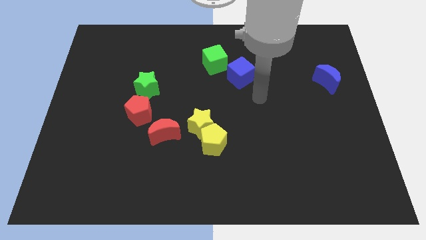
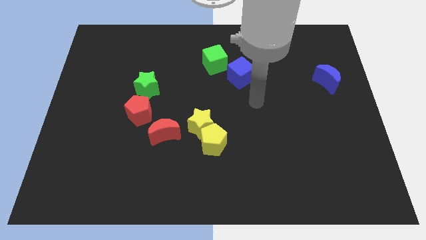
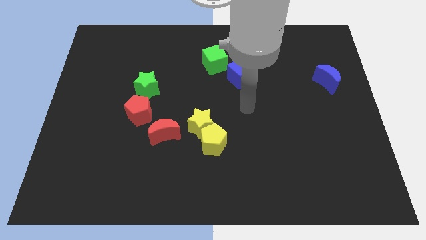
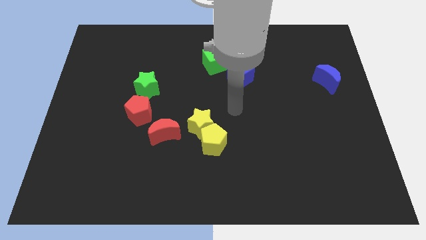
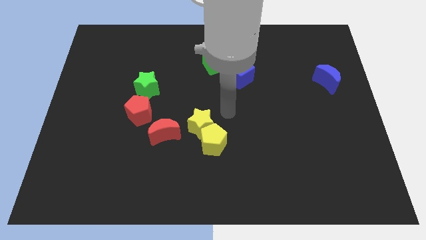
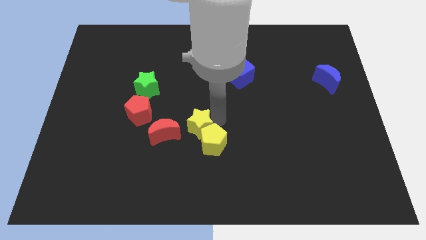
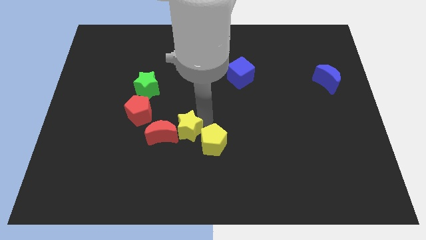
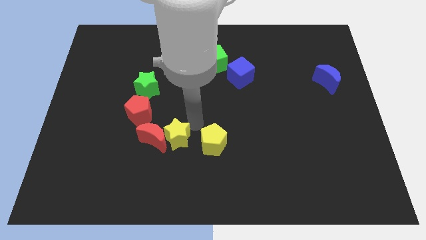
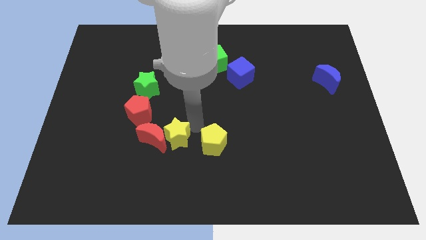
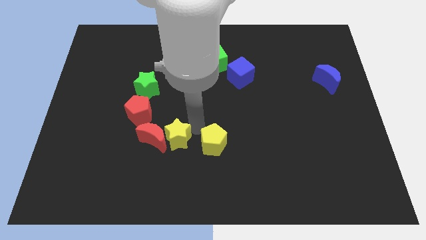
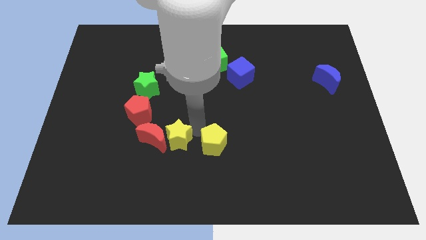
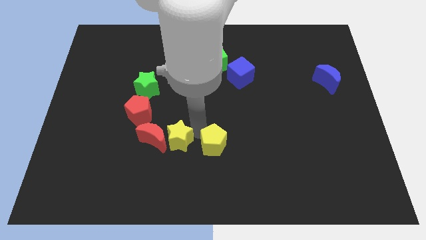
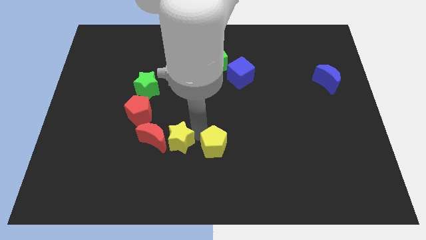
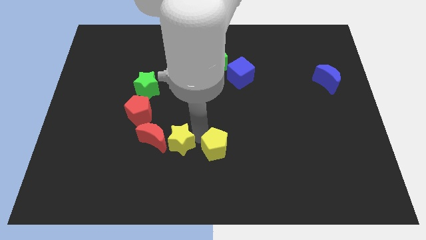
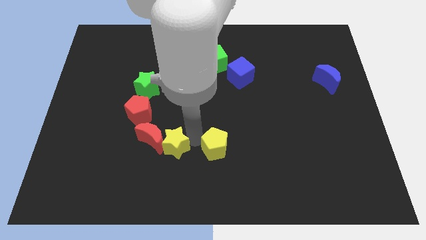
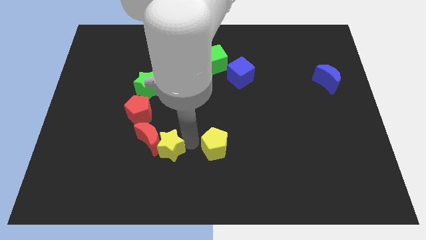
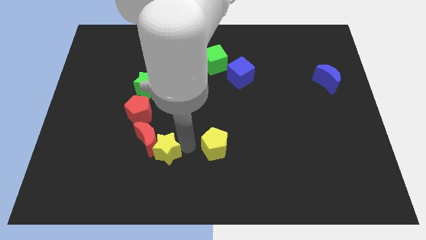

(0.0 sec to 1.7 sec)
move the yellow pentagon away from the yellow star

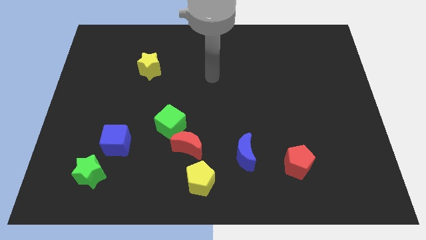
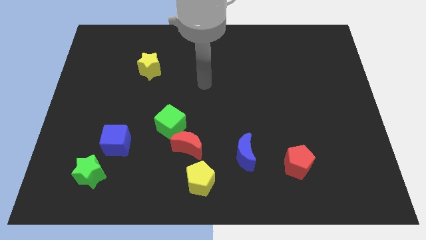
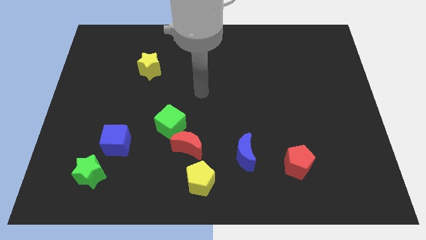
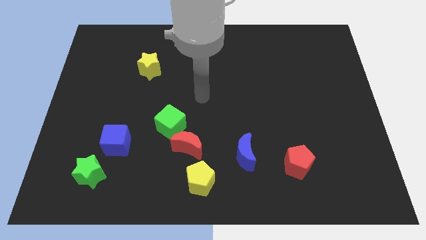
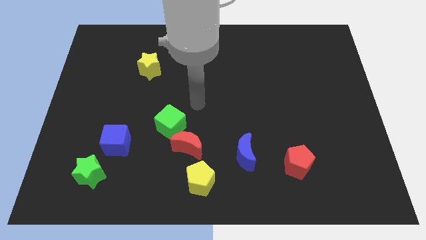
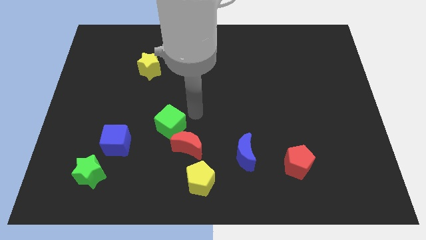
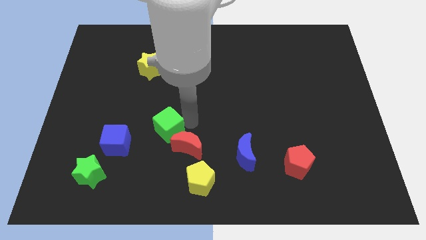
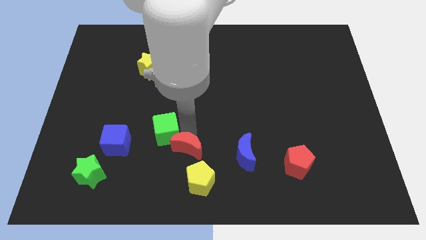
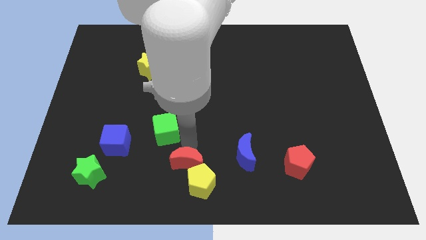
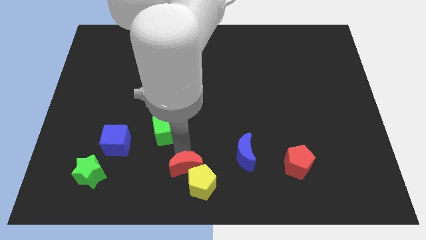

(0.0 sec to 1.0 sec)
move the green cube away from the red moon

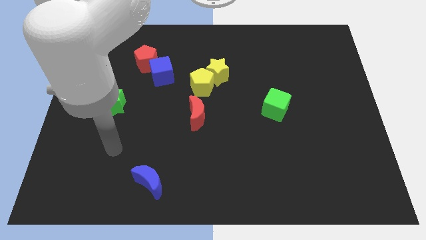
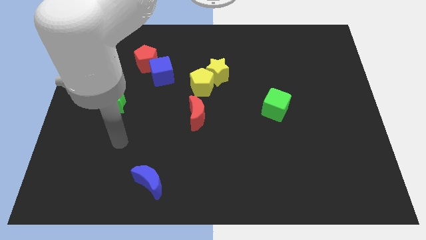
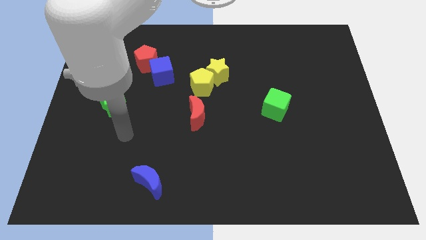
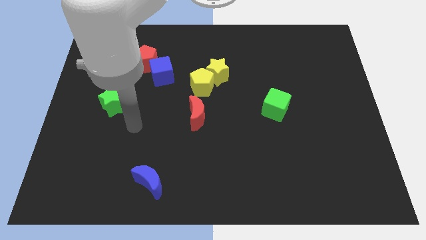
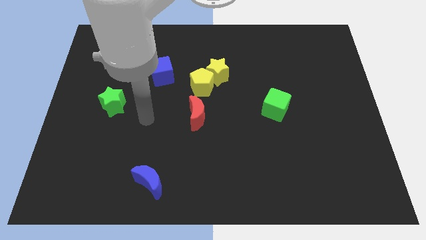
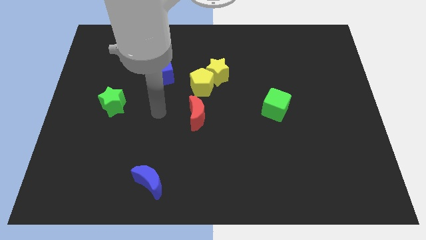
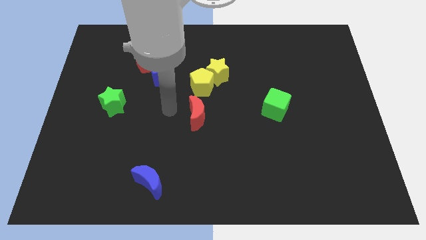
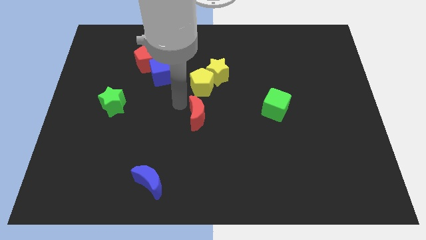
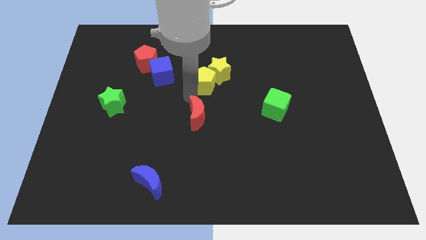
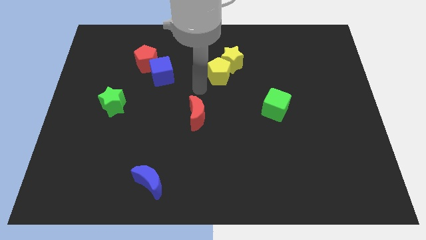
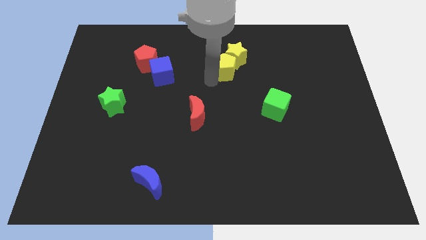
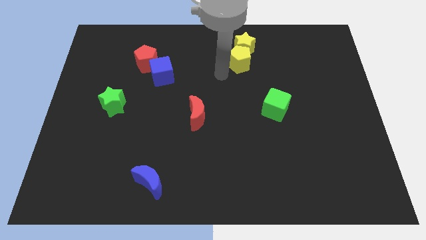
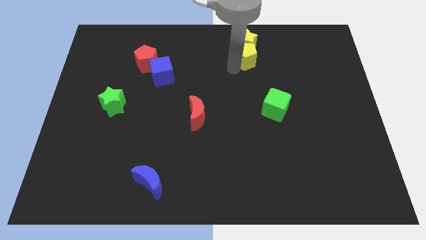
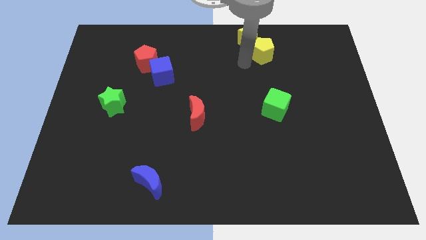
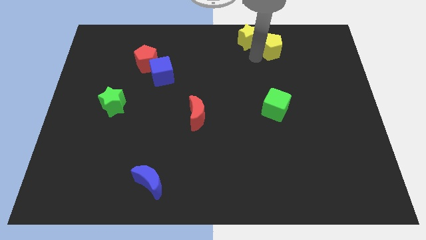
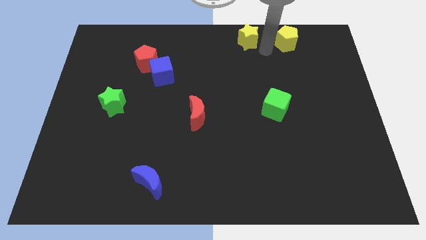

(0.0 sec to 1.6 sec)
separate the yellow star from the yellow pentagon

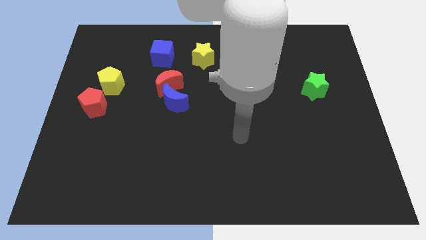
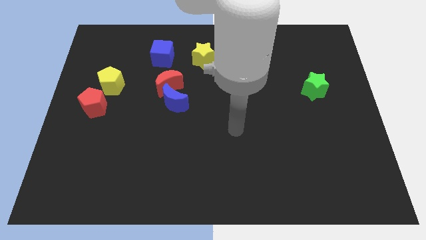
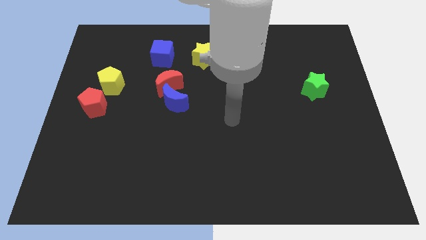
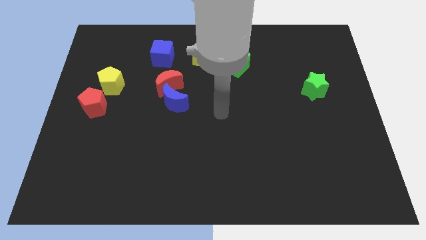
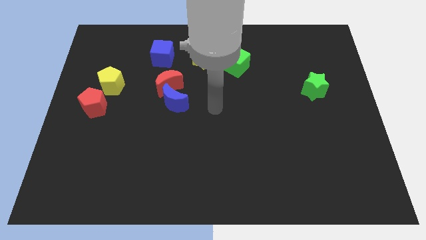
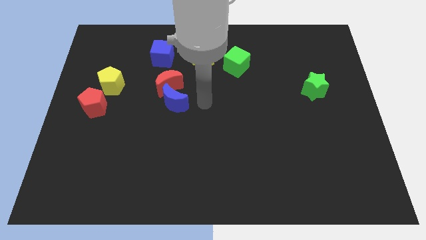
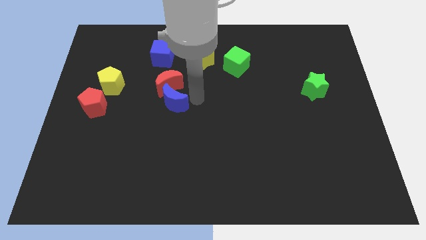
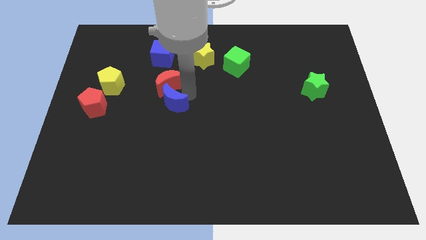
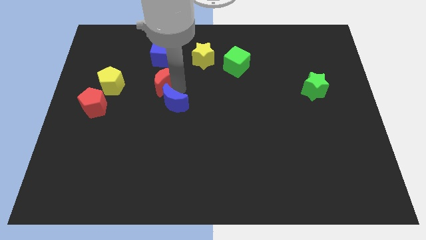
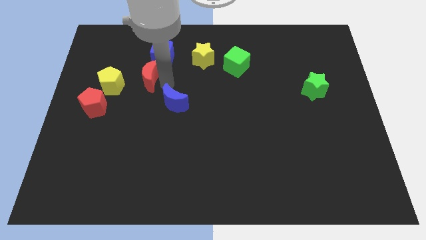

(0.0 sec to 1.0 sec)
pull the blue moon apart from the red moon

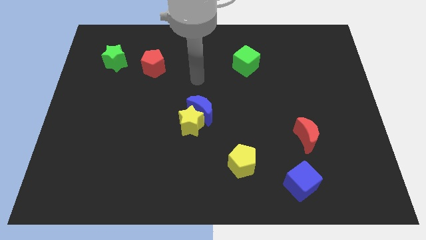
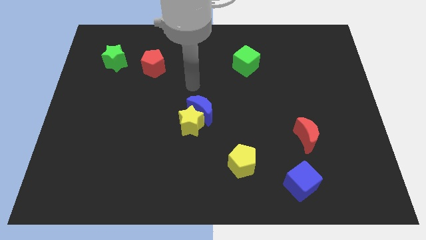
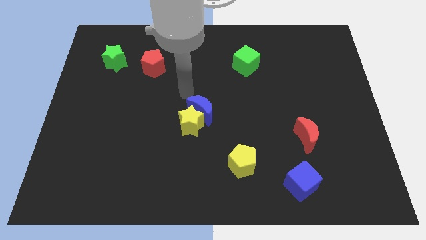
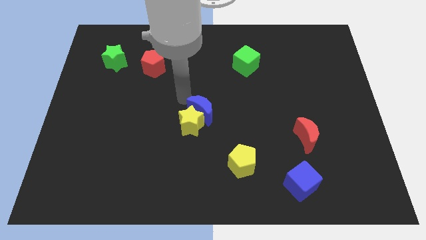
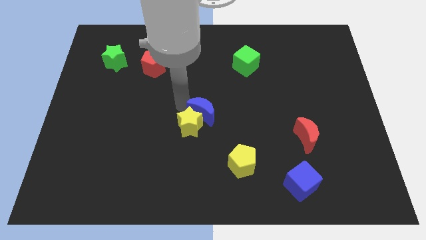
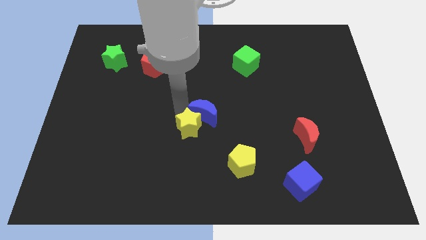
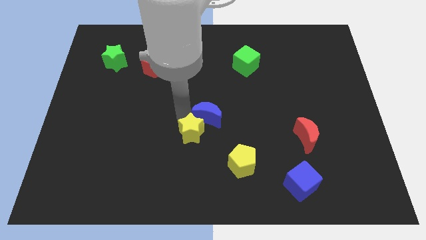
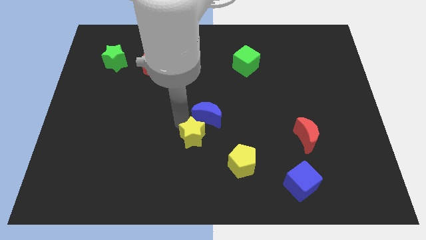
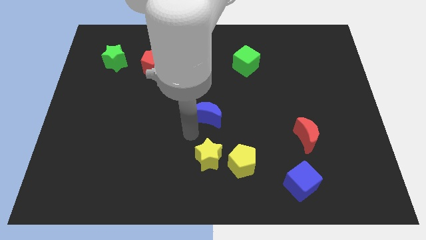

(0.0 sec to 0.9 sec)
separate the blue moon from the yellow star

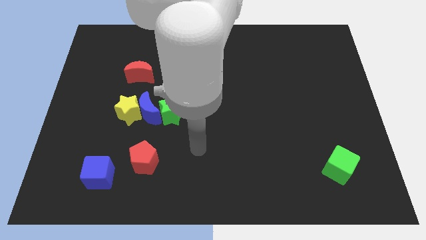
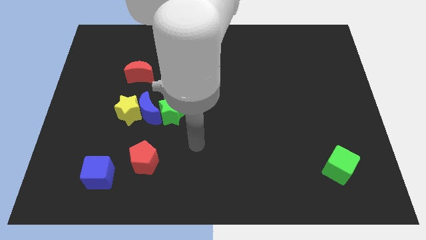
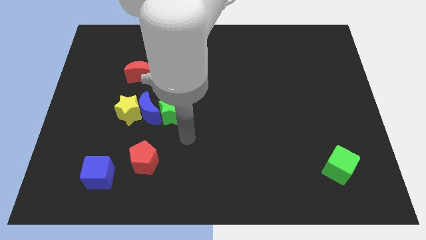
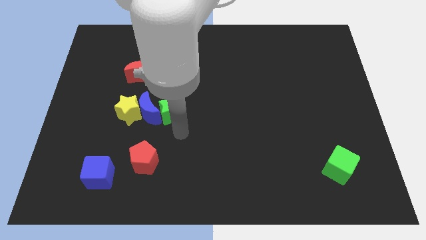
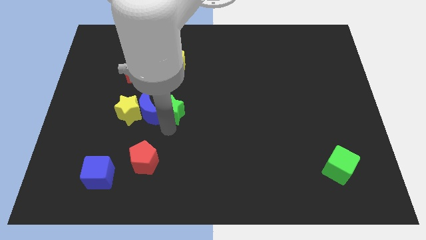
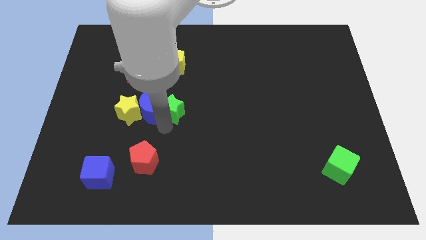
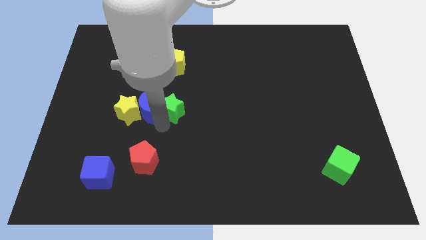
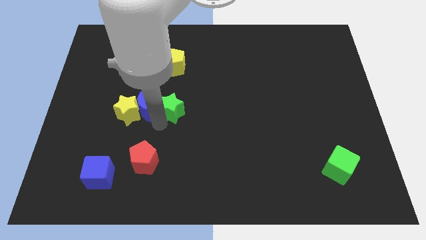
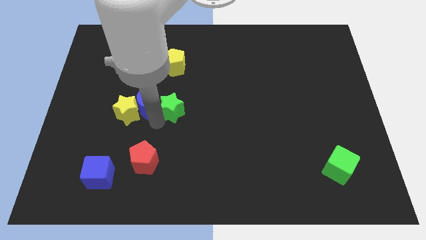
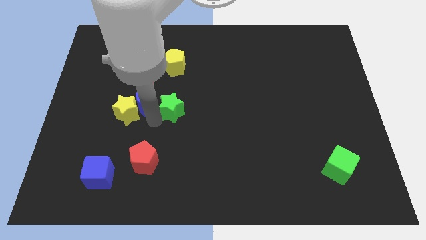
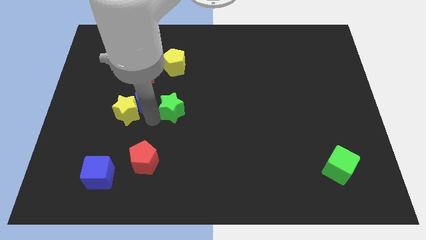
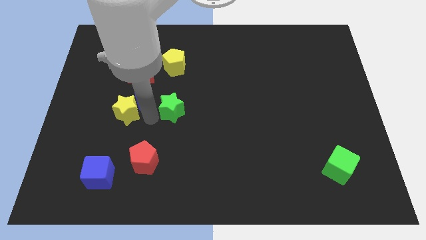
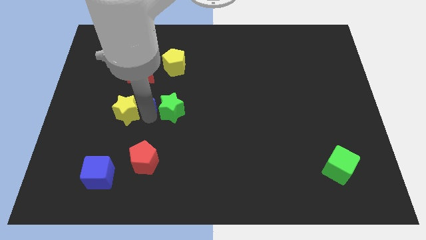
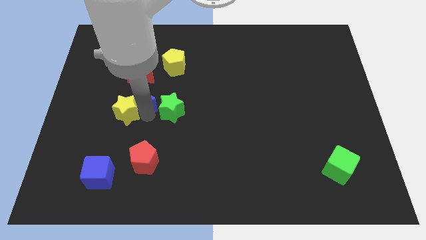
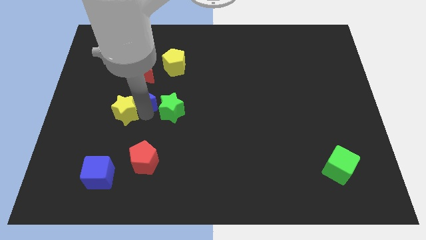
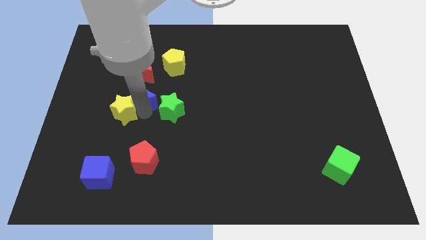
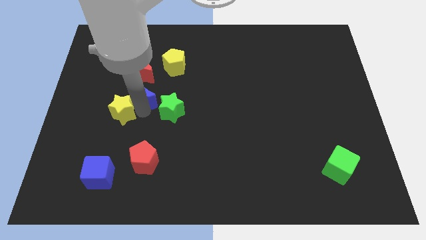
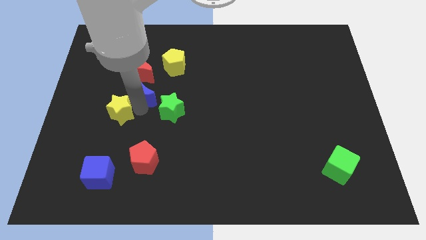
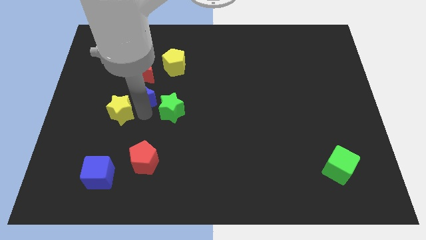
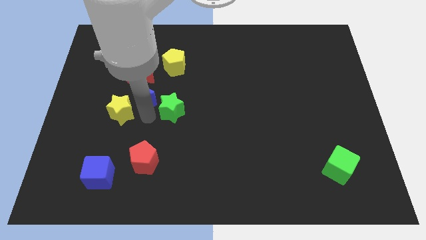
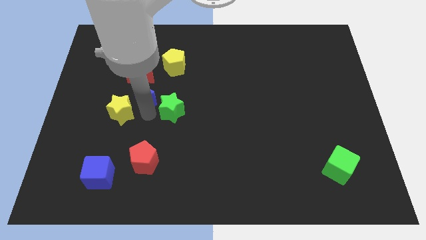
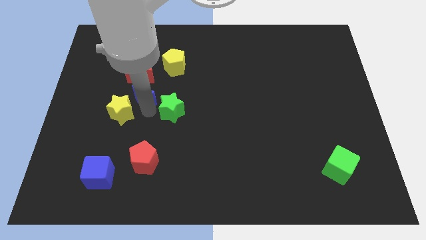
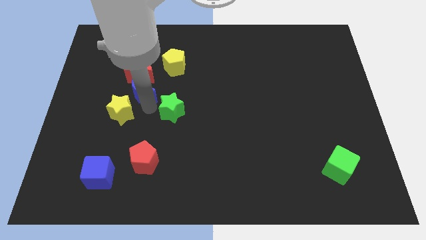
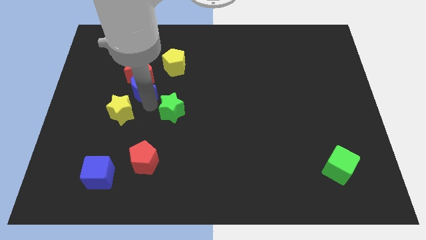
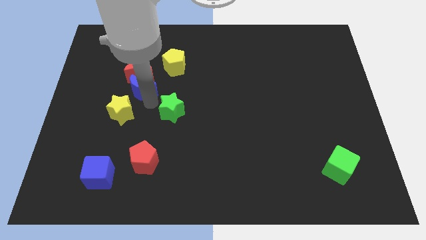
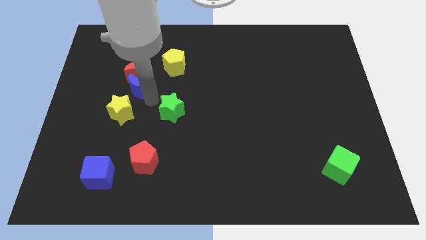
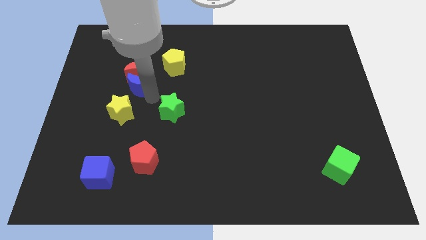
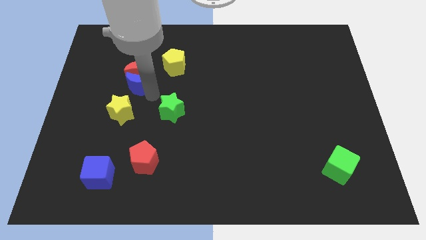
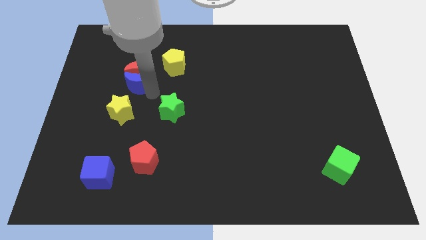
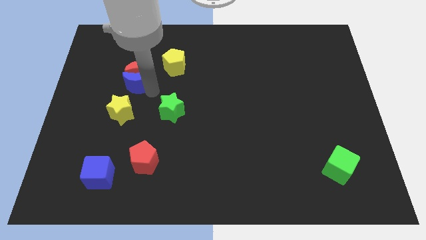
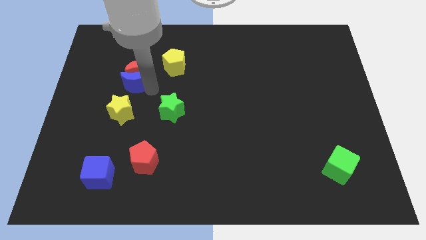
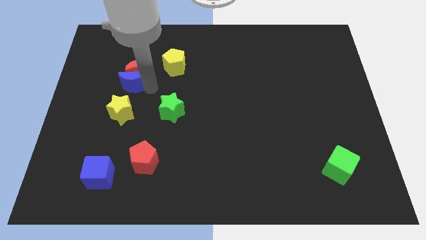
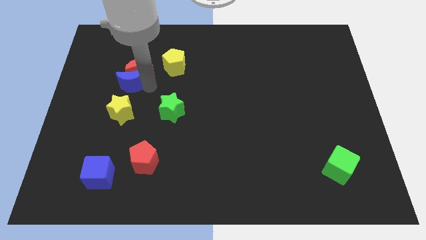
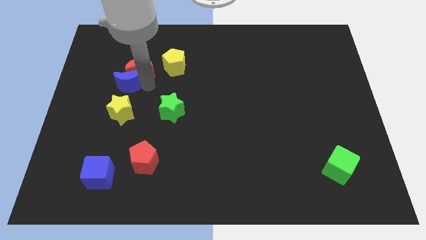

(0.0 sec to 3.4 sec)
pull the blue moon apart from the yellow star and green star
